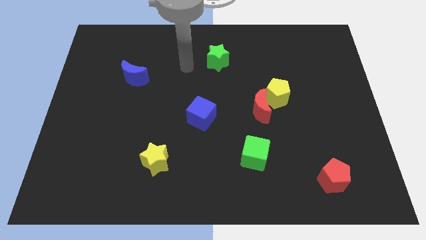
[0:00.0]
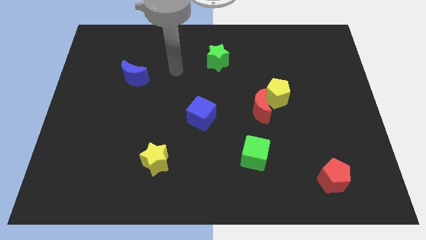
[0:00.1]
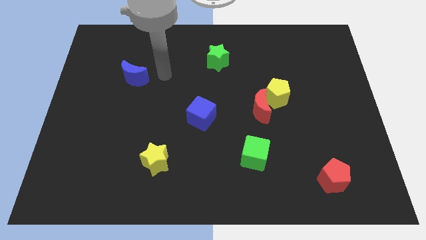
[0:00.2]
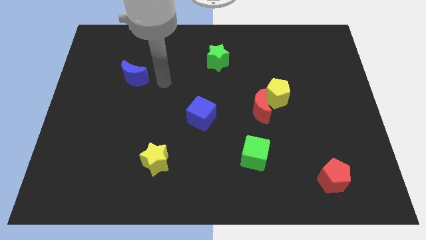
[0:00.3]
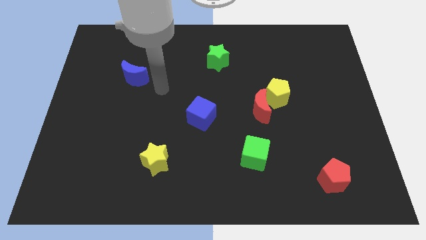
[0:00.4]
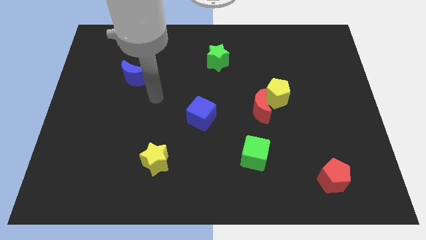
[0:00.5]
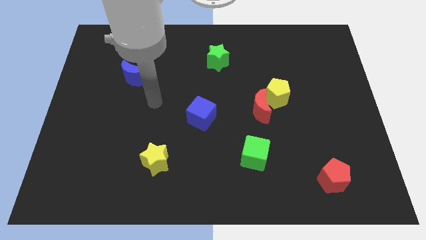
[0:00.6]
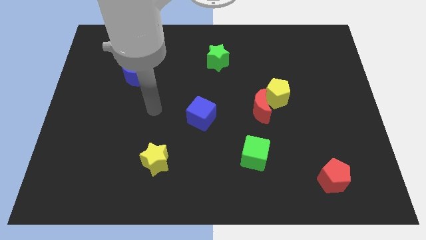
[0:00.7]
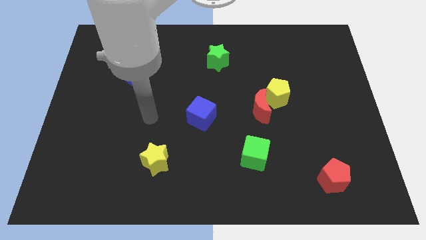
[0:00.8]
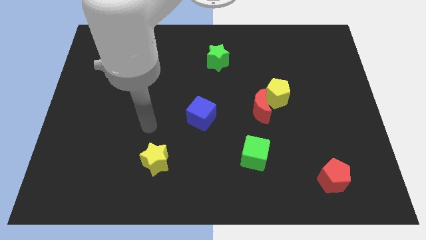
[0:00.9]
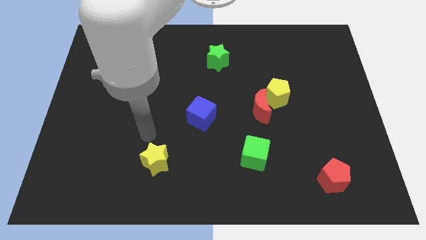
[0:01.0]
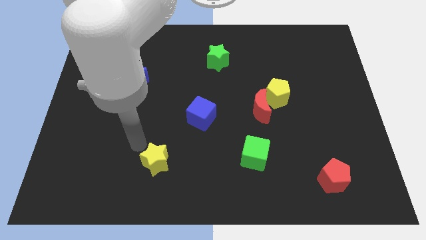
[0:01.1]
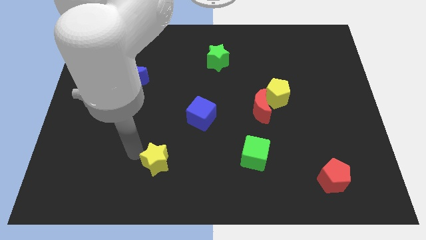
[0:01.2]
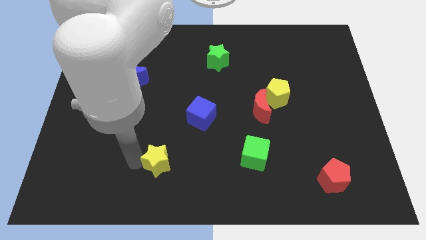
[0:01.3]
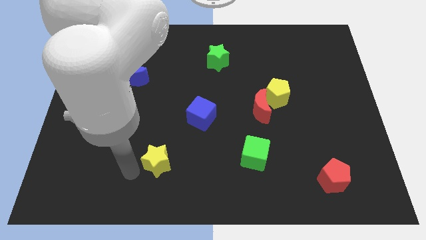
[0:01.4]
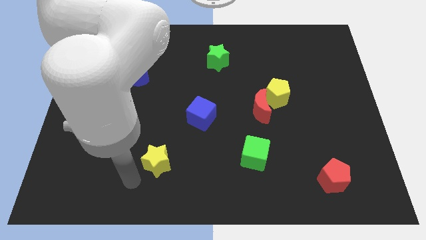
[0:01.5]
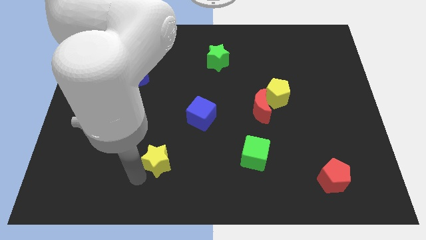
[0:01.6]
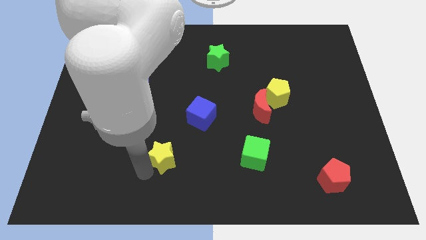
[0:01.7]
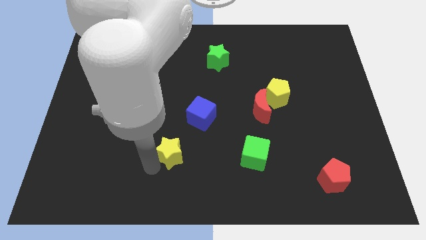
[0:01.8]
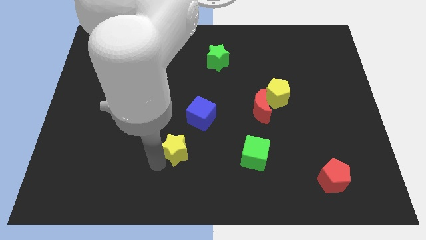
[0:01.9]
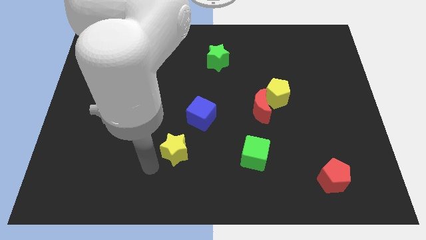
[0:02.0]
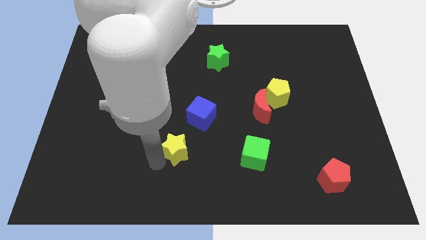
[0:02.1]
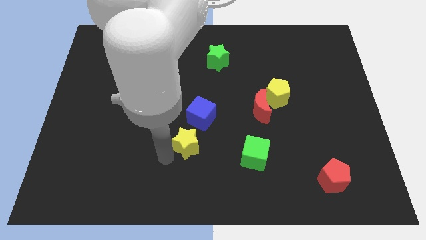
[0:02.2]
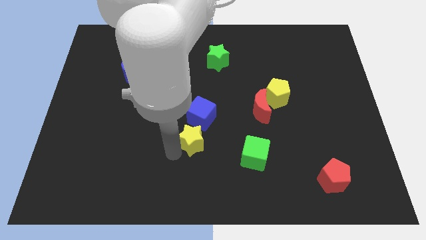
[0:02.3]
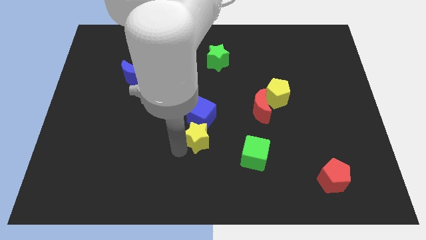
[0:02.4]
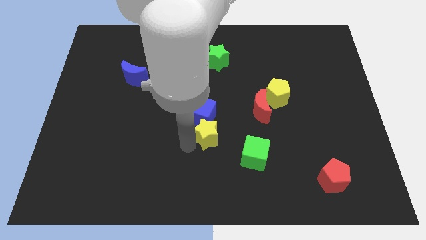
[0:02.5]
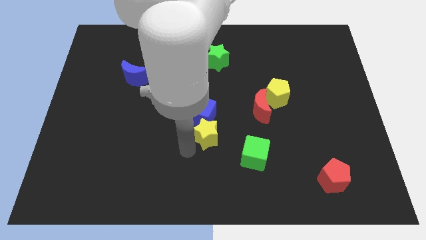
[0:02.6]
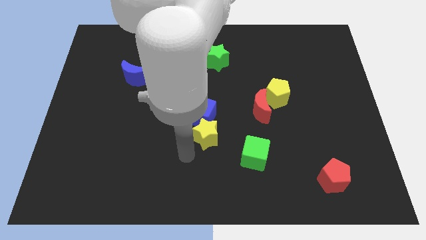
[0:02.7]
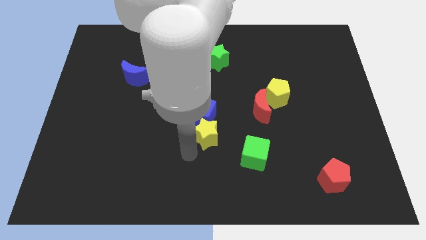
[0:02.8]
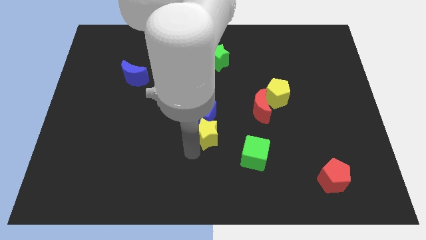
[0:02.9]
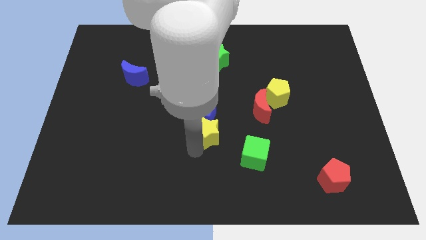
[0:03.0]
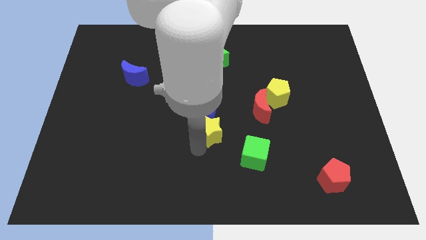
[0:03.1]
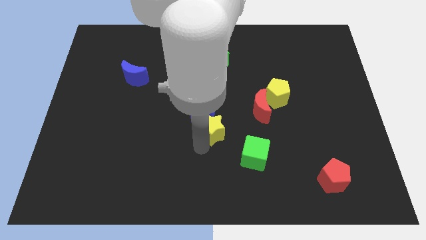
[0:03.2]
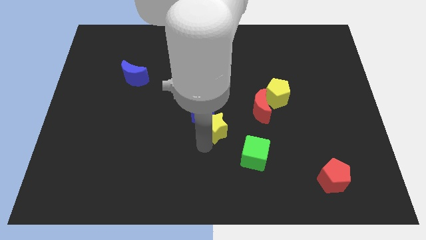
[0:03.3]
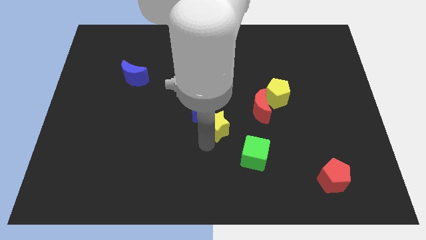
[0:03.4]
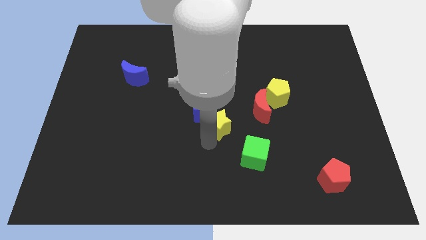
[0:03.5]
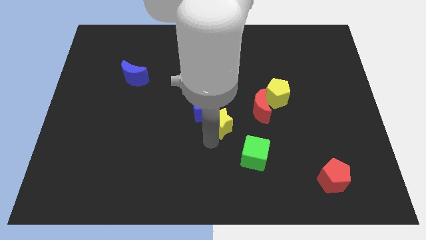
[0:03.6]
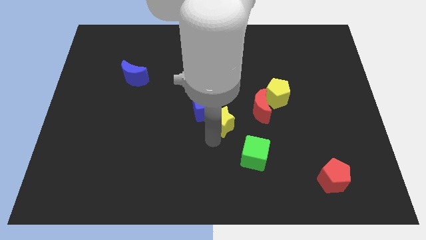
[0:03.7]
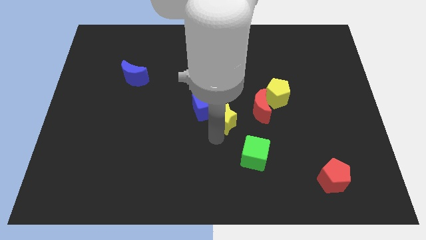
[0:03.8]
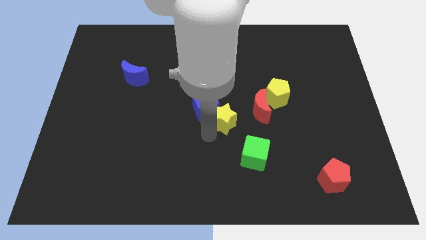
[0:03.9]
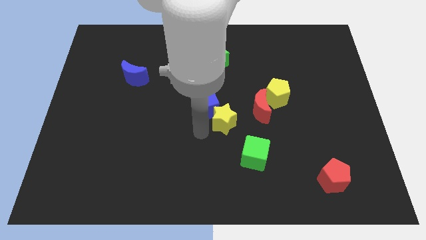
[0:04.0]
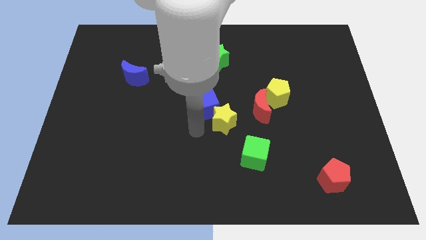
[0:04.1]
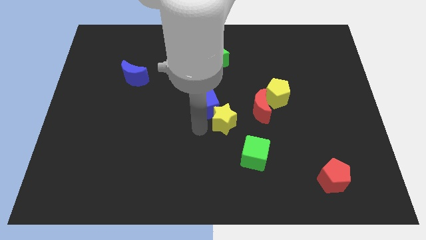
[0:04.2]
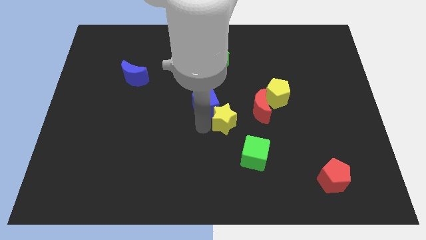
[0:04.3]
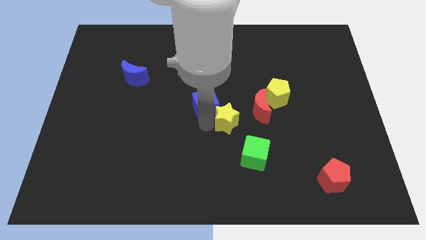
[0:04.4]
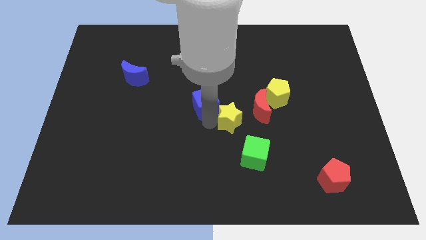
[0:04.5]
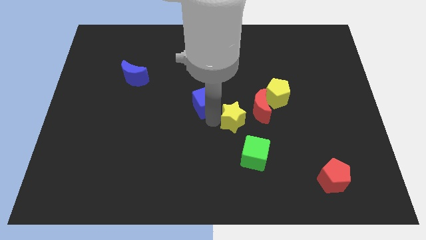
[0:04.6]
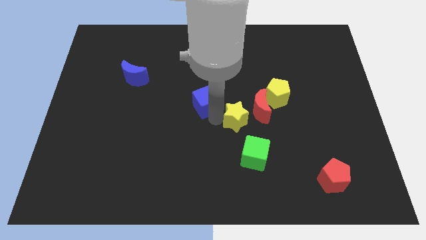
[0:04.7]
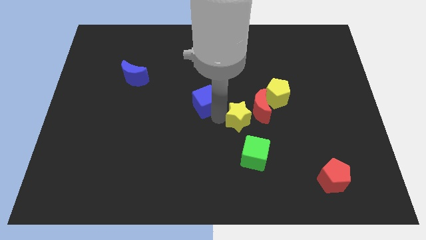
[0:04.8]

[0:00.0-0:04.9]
put the yellow star to the red moon

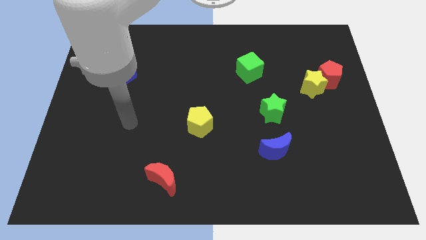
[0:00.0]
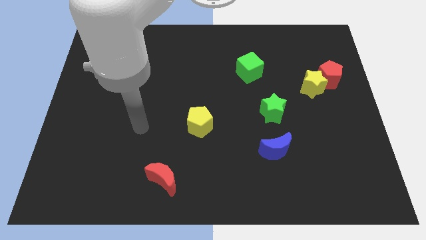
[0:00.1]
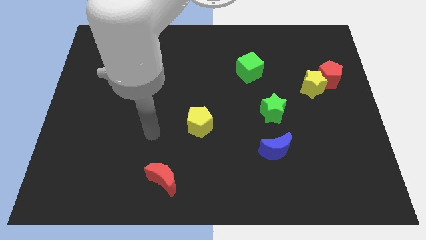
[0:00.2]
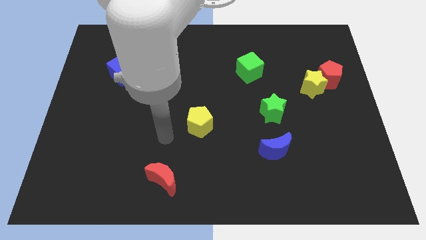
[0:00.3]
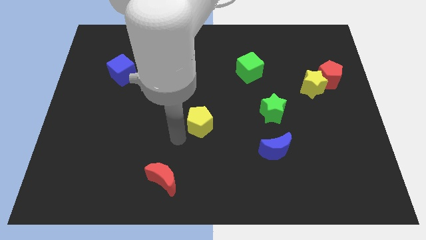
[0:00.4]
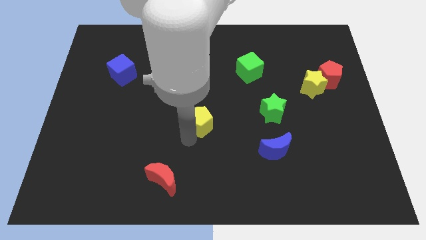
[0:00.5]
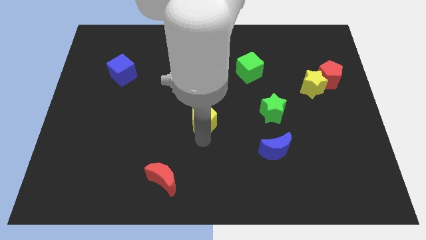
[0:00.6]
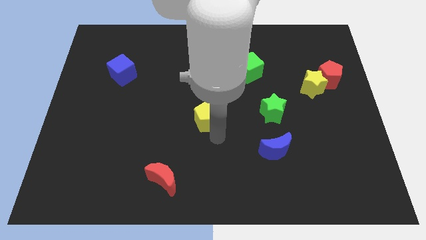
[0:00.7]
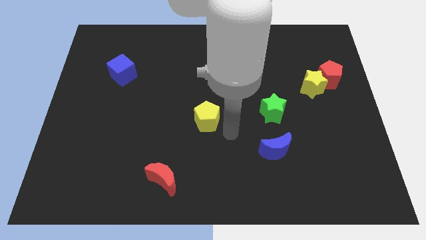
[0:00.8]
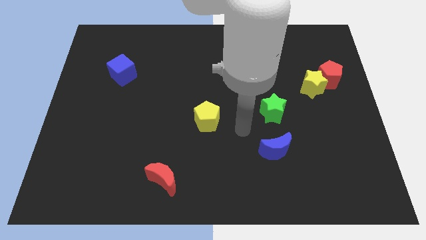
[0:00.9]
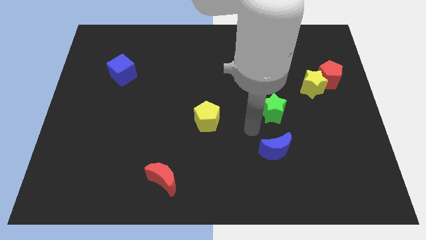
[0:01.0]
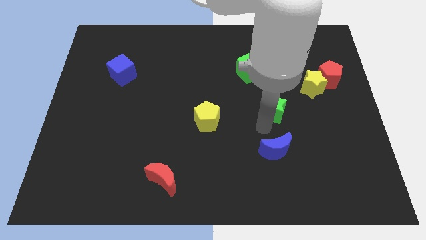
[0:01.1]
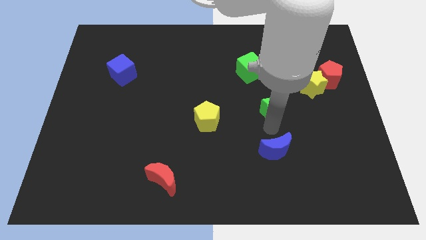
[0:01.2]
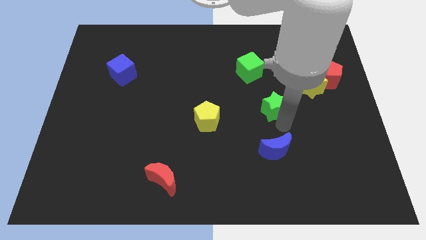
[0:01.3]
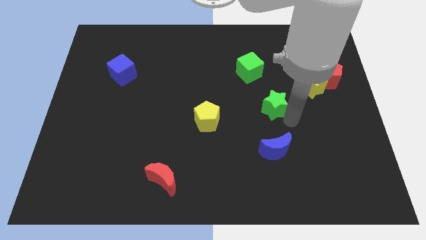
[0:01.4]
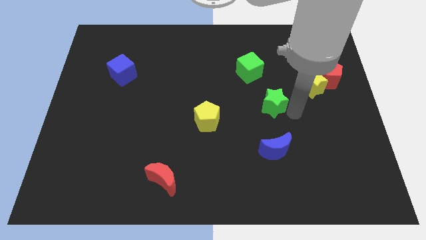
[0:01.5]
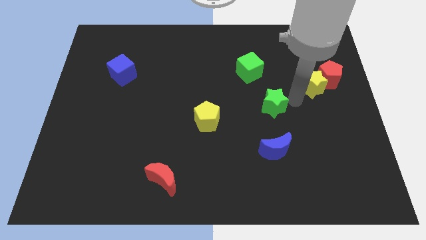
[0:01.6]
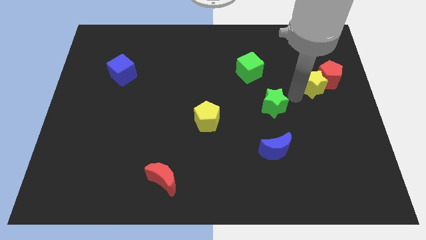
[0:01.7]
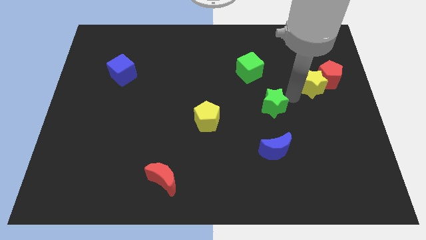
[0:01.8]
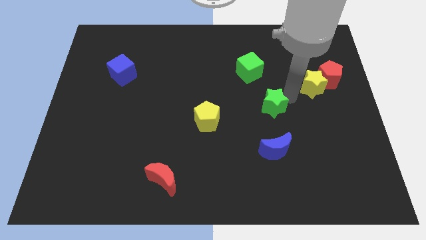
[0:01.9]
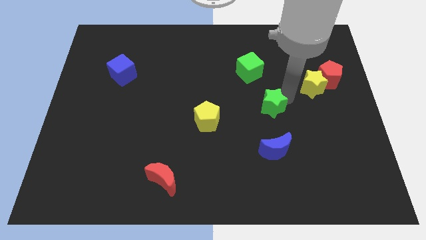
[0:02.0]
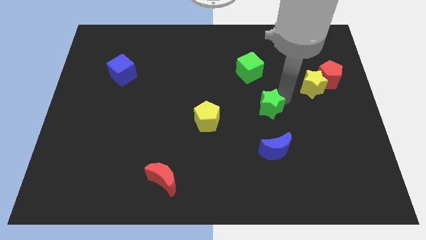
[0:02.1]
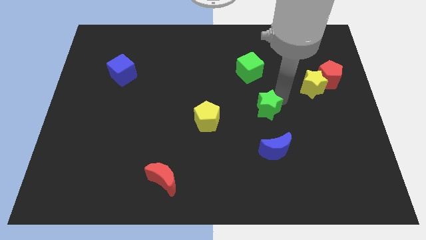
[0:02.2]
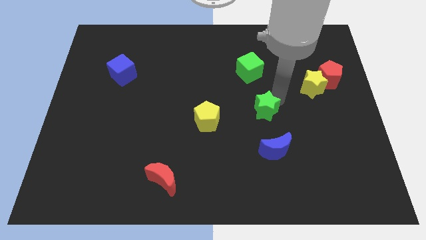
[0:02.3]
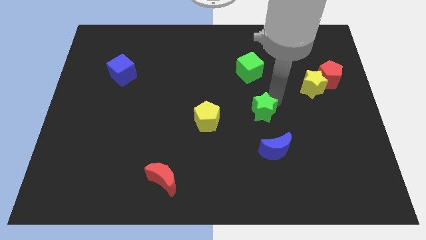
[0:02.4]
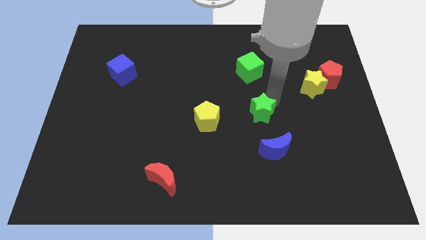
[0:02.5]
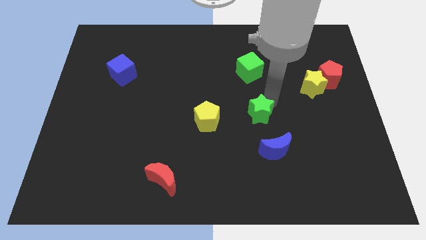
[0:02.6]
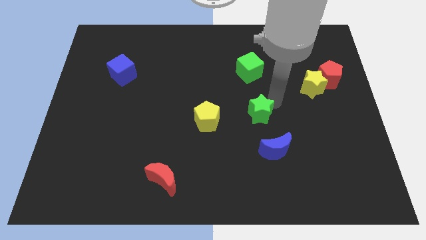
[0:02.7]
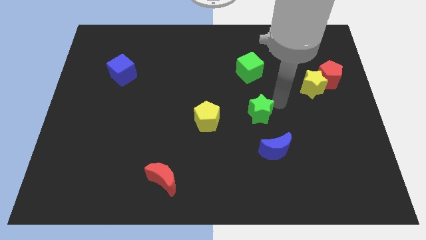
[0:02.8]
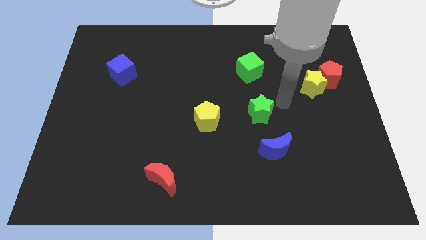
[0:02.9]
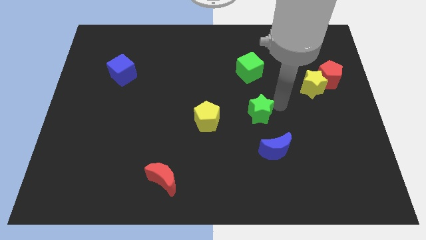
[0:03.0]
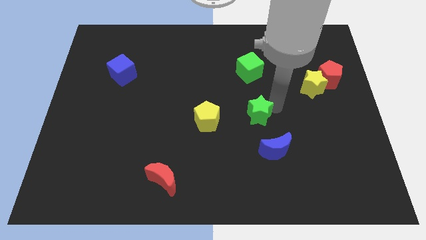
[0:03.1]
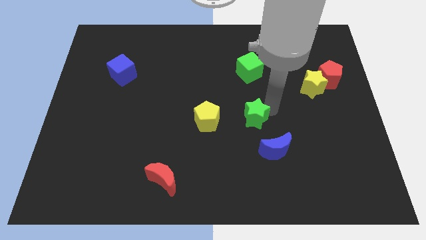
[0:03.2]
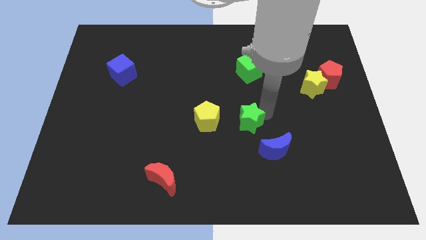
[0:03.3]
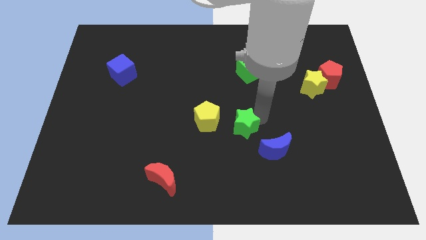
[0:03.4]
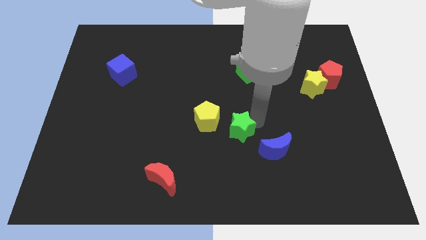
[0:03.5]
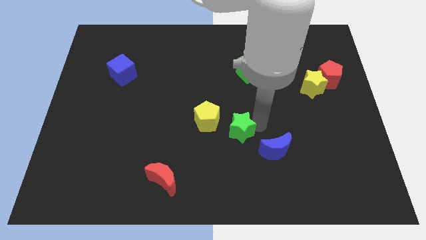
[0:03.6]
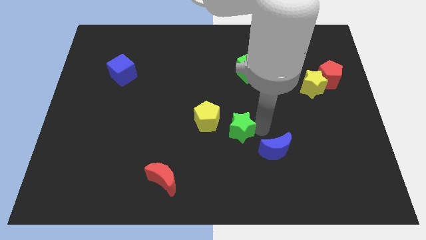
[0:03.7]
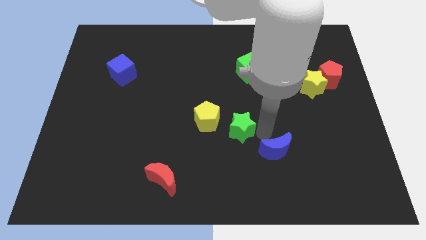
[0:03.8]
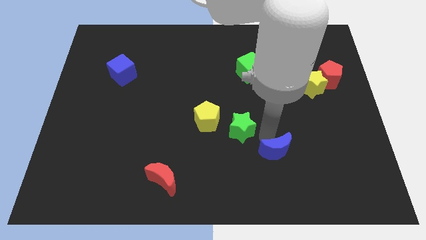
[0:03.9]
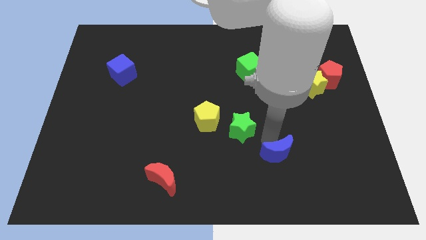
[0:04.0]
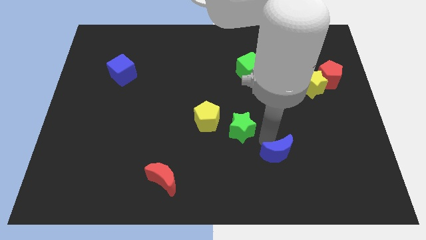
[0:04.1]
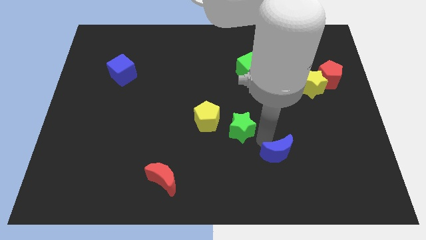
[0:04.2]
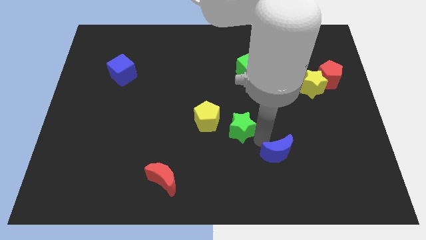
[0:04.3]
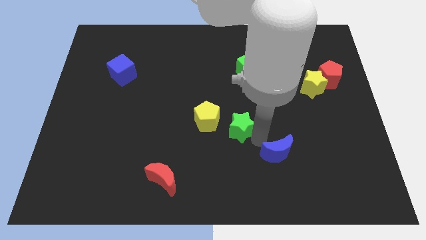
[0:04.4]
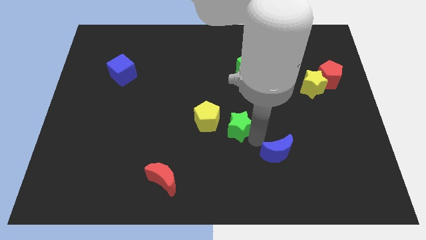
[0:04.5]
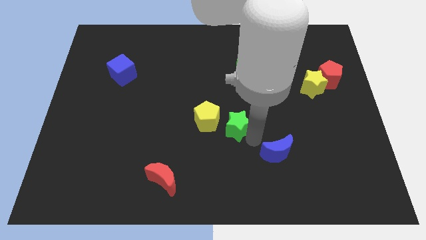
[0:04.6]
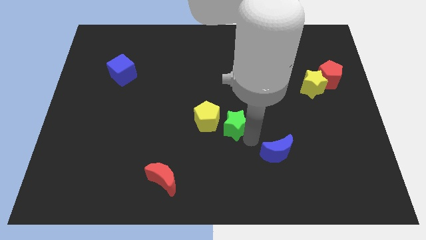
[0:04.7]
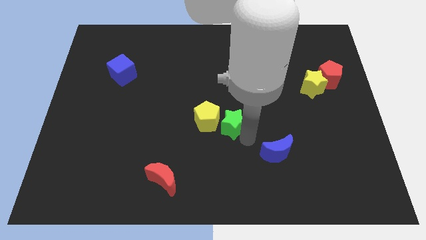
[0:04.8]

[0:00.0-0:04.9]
slide the green star to the yellow pentagon
